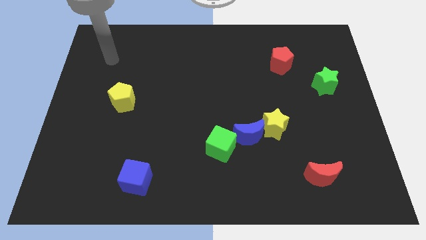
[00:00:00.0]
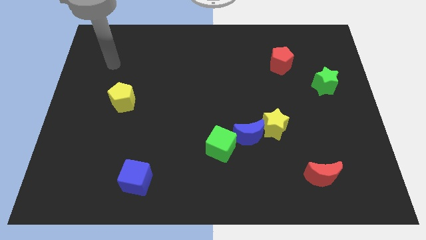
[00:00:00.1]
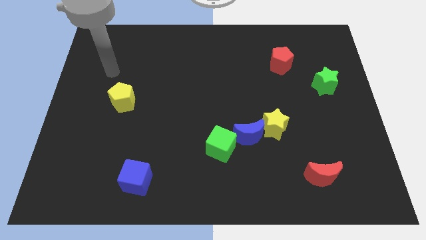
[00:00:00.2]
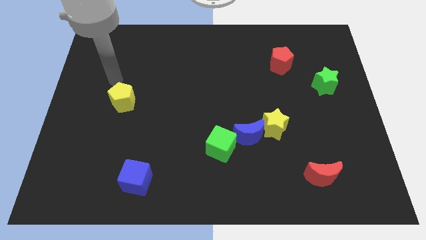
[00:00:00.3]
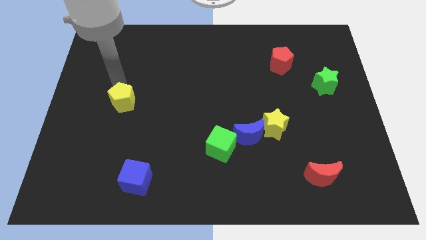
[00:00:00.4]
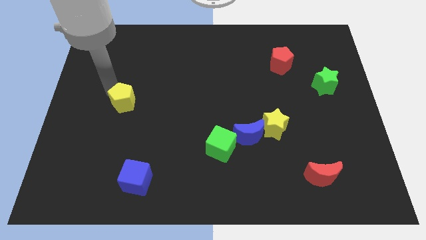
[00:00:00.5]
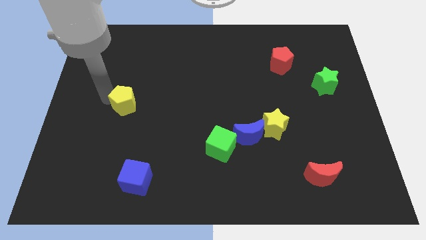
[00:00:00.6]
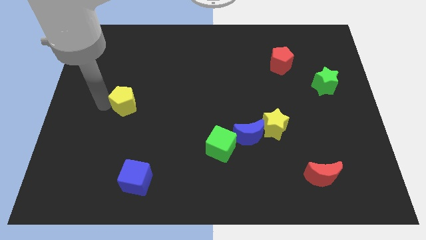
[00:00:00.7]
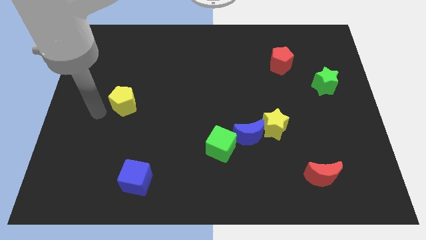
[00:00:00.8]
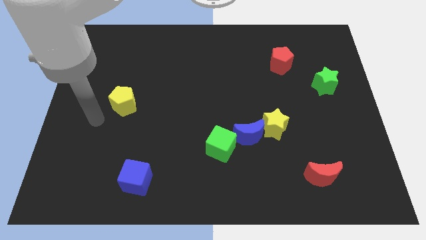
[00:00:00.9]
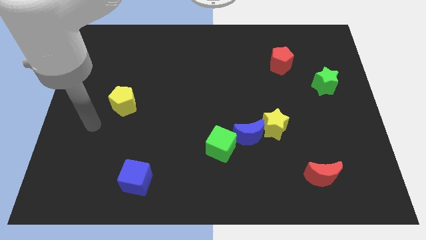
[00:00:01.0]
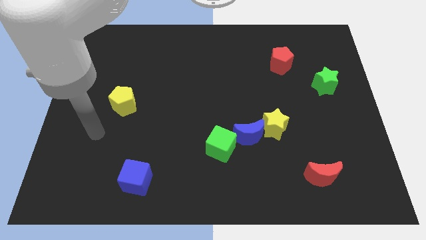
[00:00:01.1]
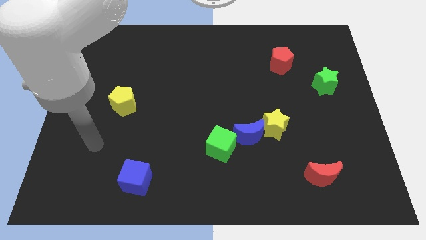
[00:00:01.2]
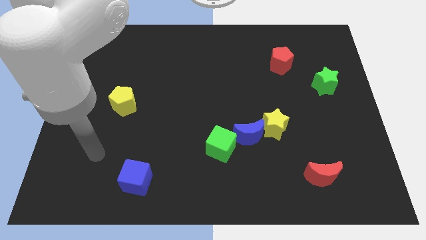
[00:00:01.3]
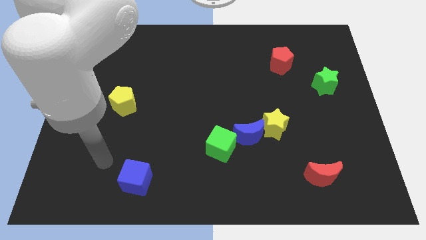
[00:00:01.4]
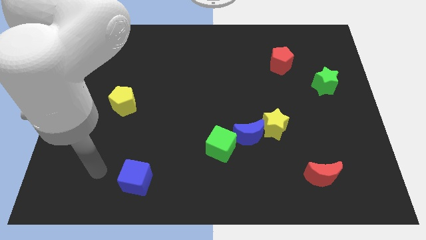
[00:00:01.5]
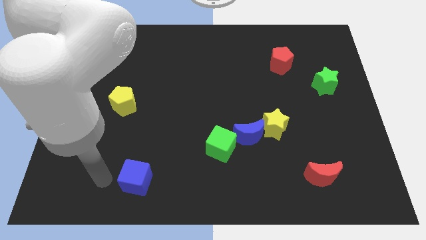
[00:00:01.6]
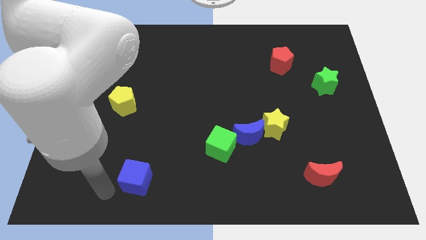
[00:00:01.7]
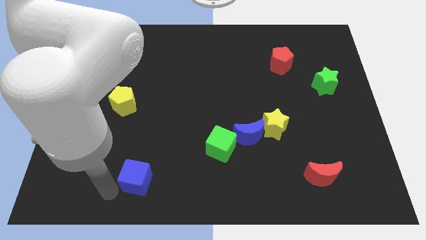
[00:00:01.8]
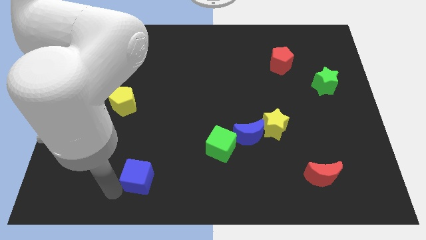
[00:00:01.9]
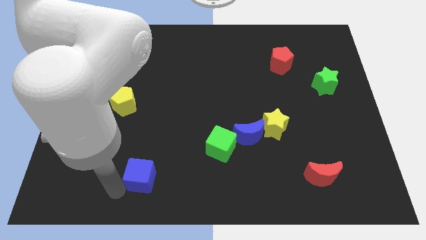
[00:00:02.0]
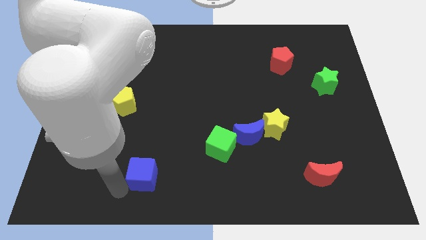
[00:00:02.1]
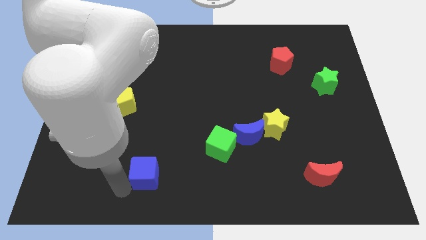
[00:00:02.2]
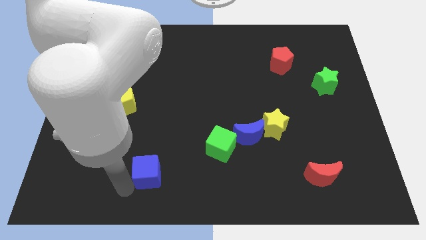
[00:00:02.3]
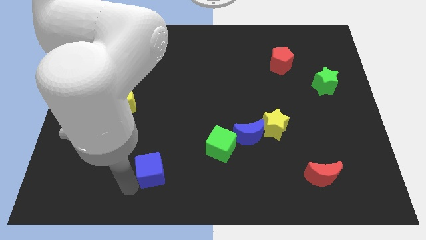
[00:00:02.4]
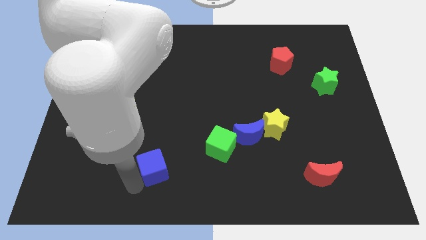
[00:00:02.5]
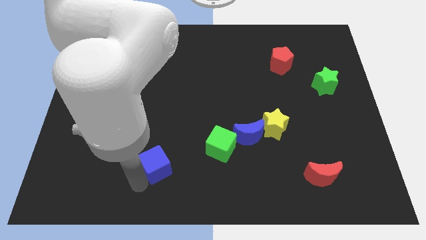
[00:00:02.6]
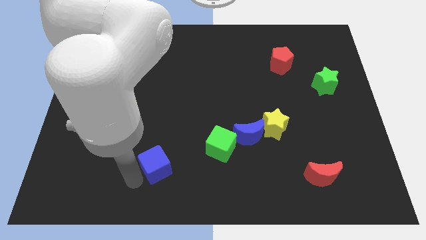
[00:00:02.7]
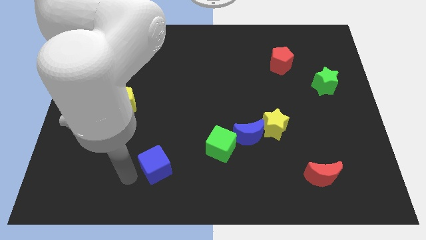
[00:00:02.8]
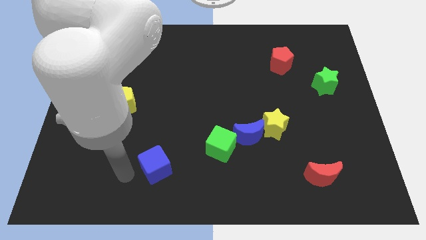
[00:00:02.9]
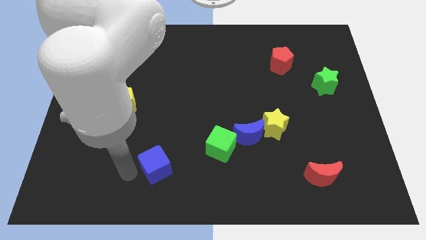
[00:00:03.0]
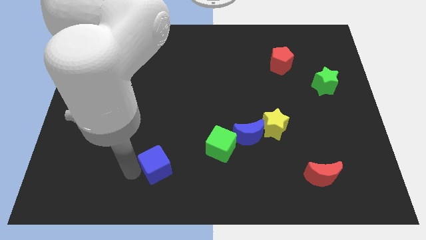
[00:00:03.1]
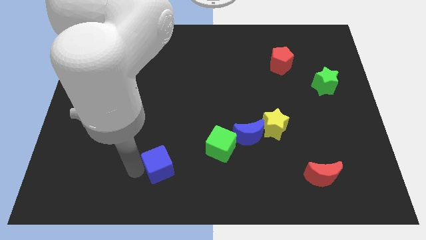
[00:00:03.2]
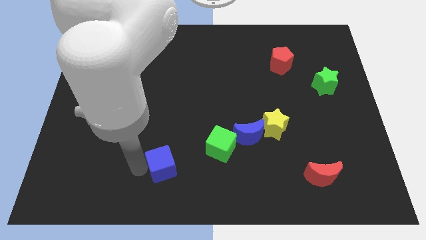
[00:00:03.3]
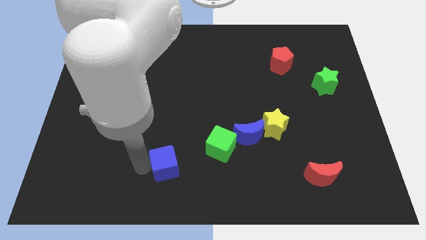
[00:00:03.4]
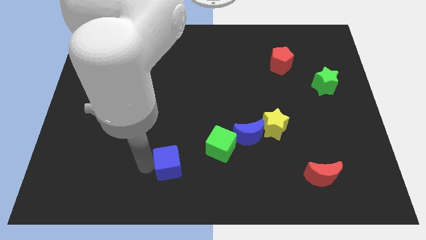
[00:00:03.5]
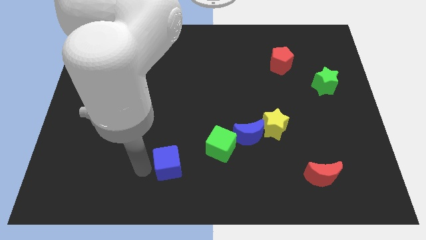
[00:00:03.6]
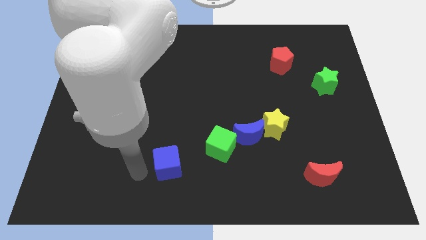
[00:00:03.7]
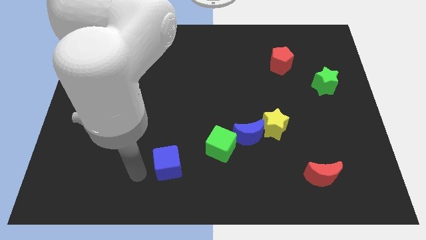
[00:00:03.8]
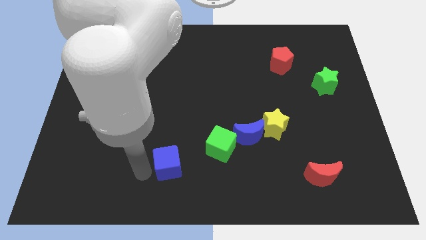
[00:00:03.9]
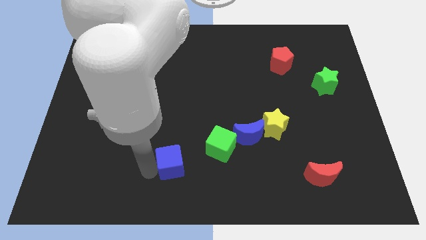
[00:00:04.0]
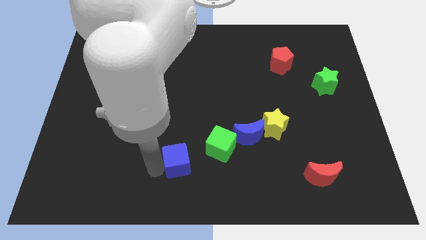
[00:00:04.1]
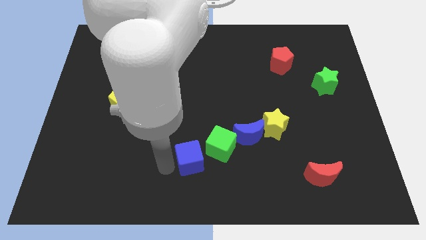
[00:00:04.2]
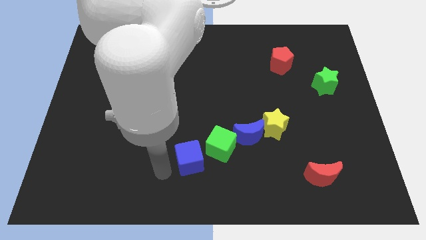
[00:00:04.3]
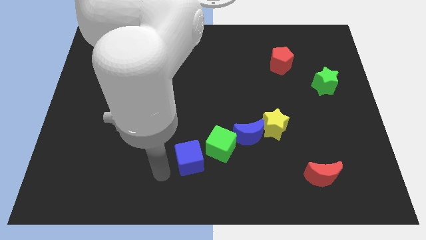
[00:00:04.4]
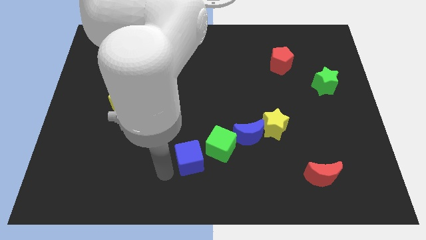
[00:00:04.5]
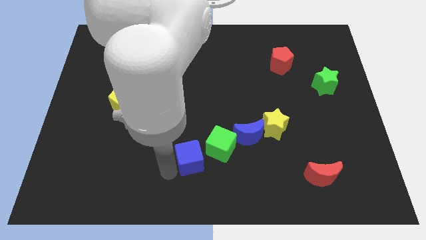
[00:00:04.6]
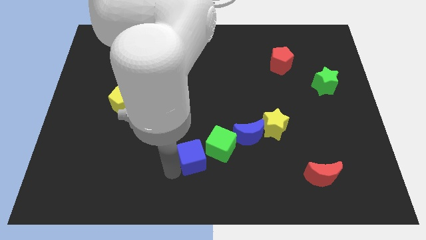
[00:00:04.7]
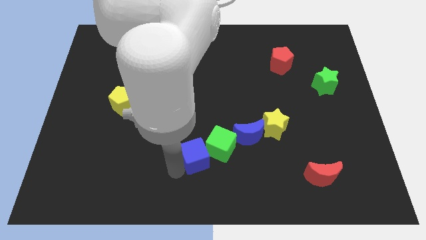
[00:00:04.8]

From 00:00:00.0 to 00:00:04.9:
move the blue cube next to the green cube

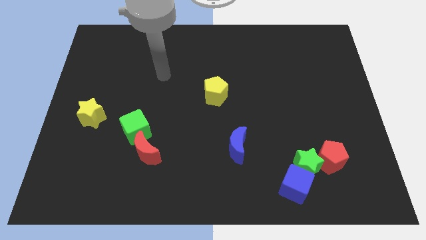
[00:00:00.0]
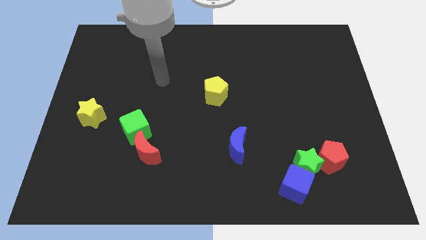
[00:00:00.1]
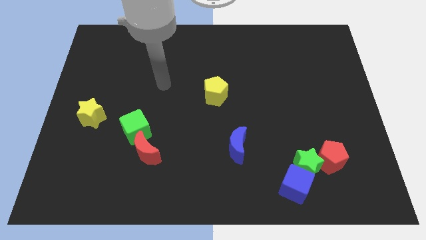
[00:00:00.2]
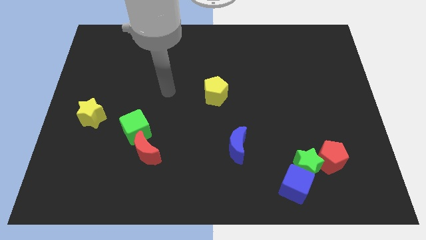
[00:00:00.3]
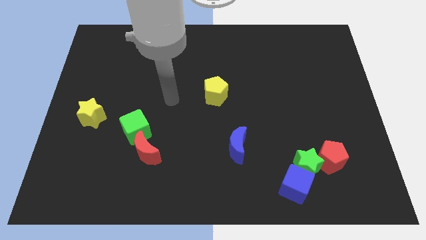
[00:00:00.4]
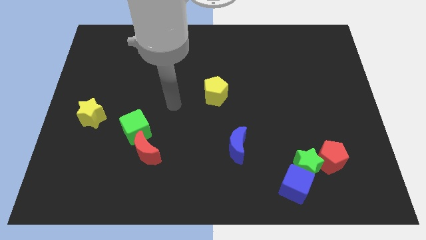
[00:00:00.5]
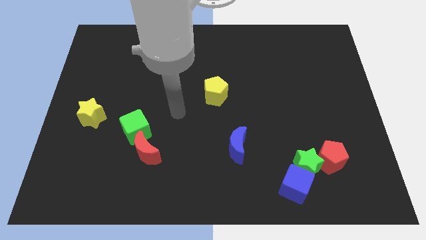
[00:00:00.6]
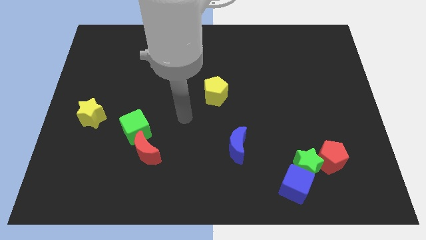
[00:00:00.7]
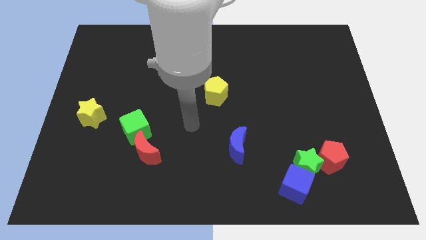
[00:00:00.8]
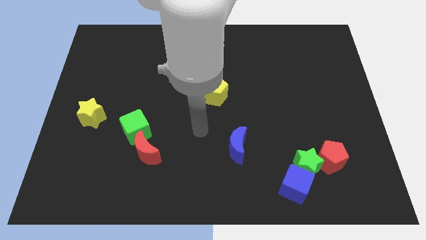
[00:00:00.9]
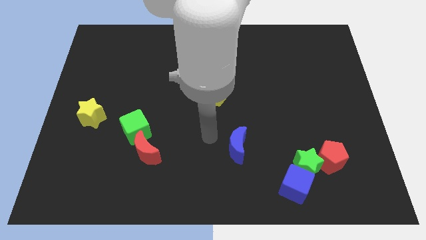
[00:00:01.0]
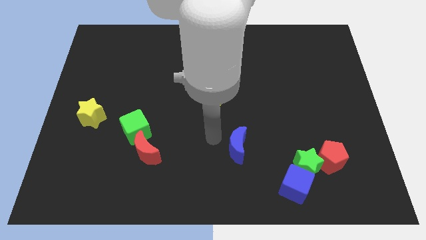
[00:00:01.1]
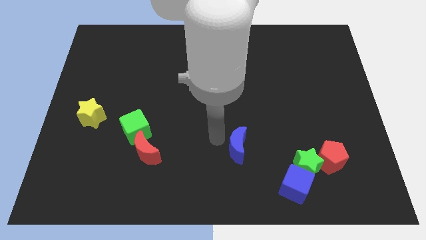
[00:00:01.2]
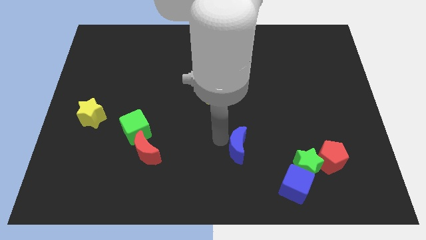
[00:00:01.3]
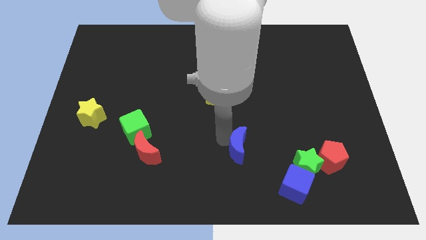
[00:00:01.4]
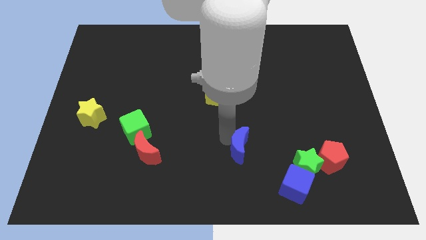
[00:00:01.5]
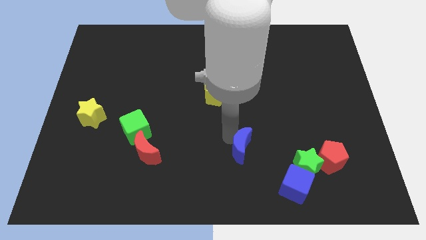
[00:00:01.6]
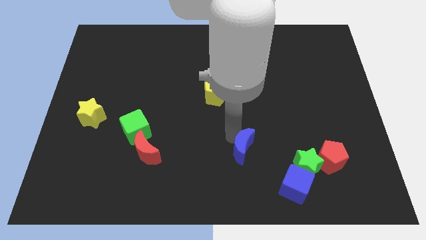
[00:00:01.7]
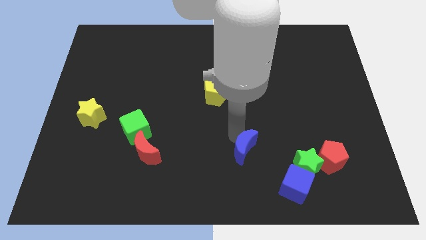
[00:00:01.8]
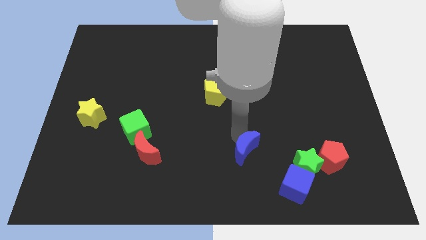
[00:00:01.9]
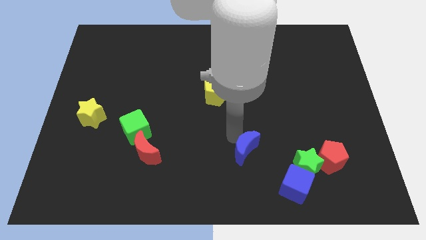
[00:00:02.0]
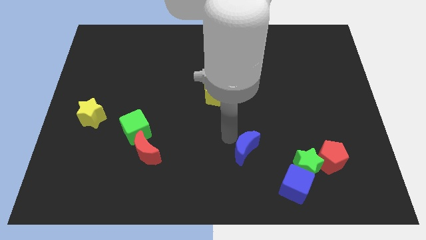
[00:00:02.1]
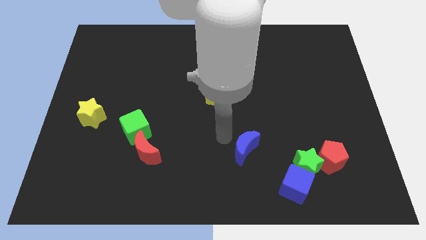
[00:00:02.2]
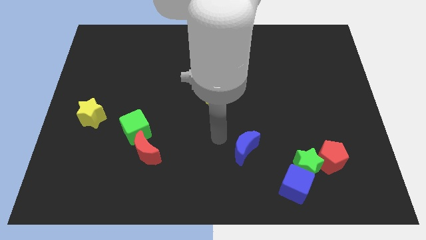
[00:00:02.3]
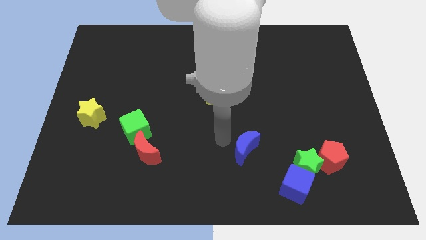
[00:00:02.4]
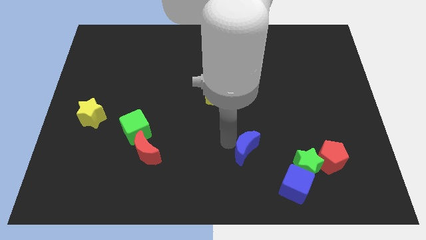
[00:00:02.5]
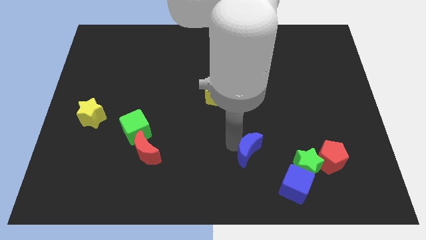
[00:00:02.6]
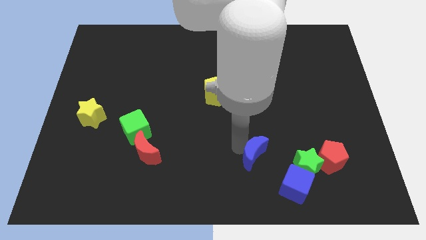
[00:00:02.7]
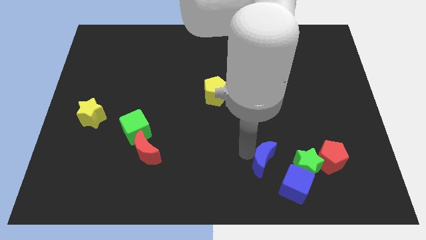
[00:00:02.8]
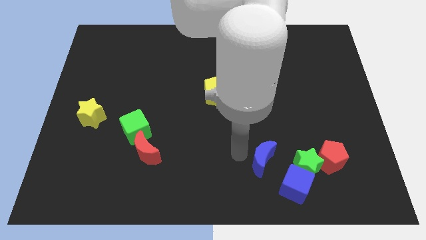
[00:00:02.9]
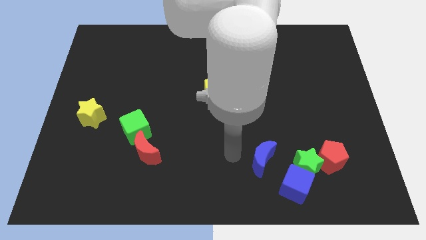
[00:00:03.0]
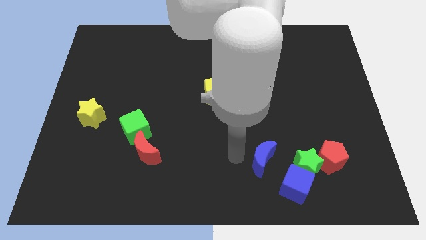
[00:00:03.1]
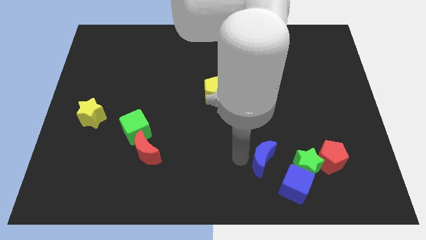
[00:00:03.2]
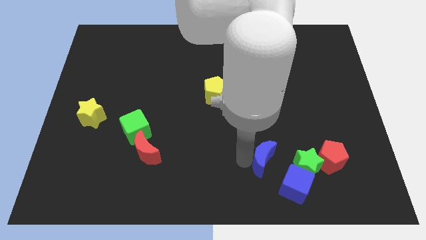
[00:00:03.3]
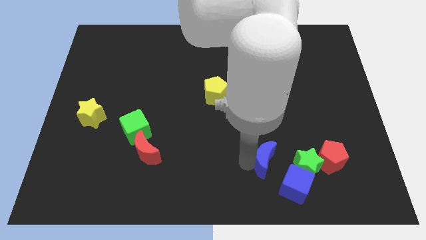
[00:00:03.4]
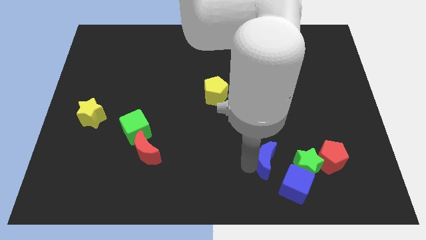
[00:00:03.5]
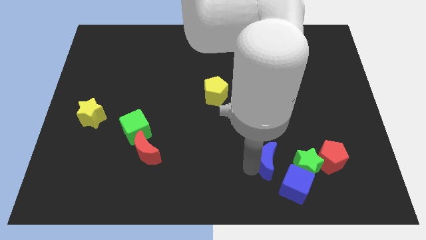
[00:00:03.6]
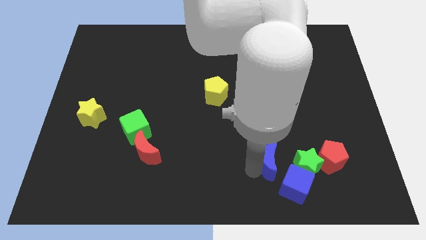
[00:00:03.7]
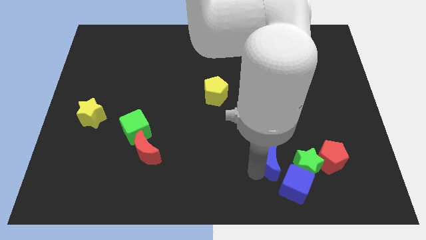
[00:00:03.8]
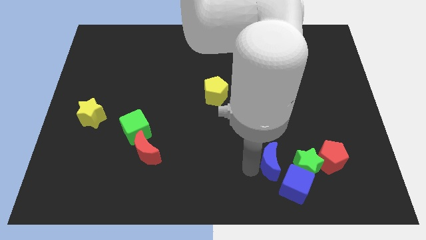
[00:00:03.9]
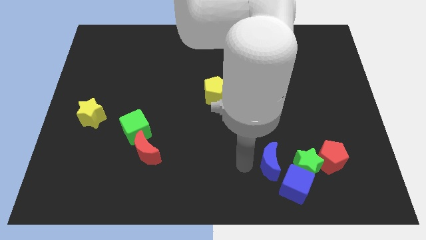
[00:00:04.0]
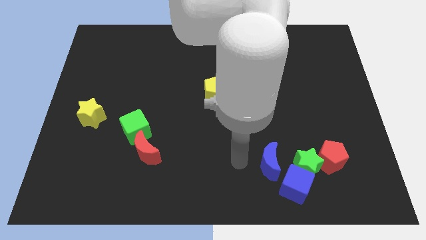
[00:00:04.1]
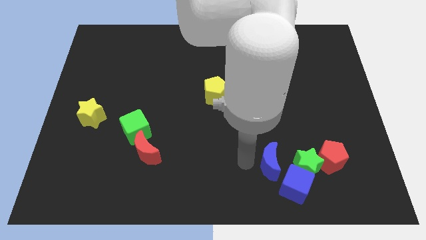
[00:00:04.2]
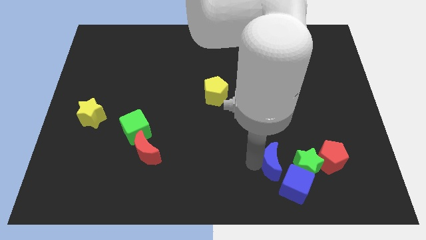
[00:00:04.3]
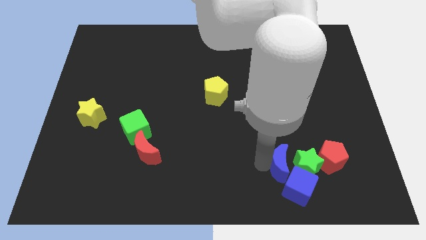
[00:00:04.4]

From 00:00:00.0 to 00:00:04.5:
move the blue moon towards the green star
